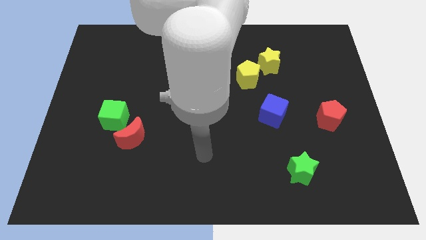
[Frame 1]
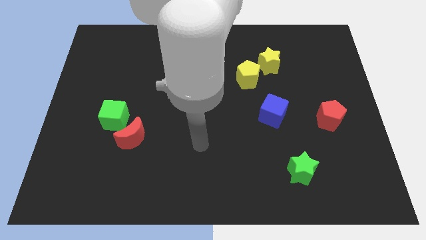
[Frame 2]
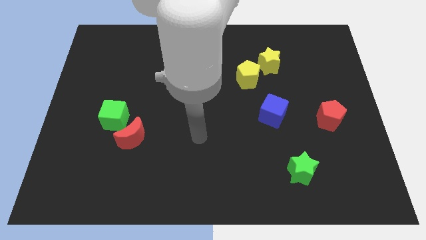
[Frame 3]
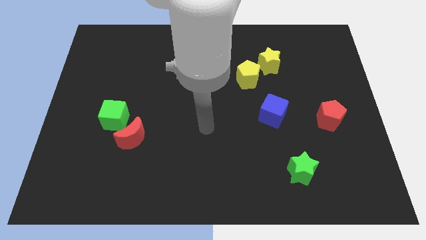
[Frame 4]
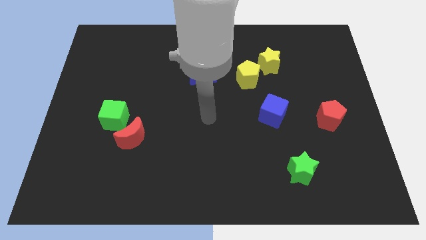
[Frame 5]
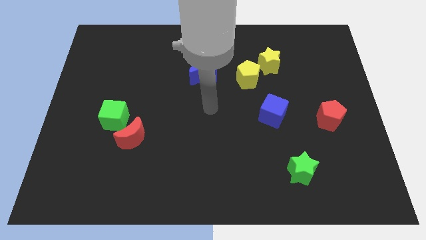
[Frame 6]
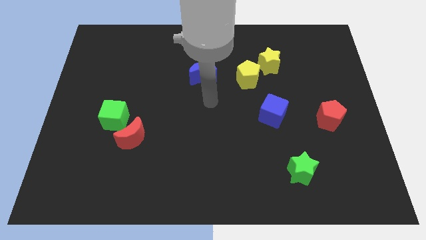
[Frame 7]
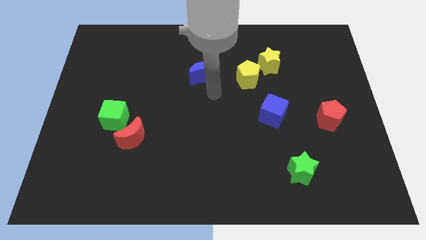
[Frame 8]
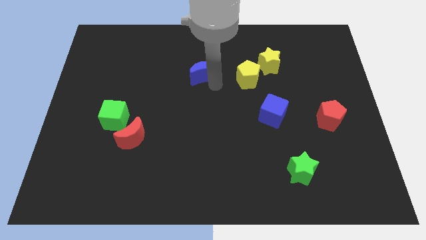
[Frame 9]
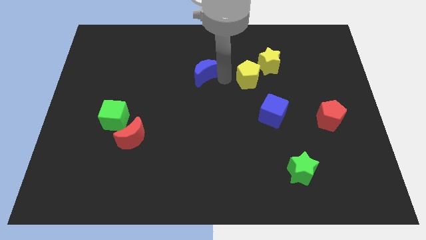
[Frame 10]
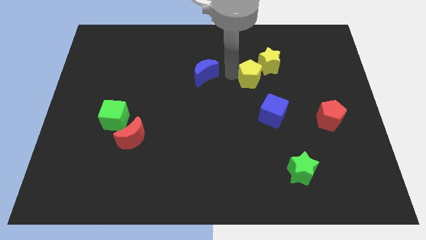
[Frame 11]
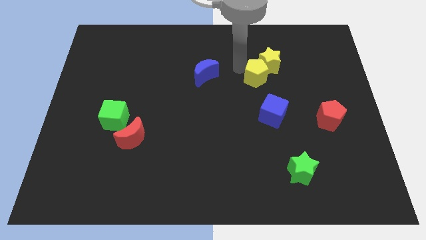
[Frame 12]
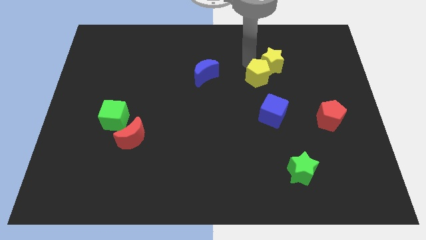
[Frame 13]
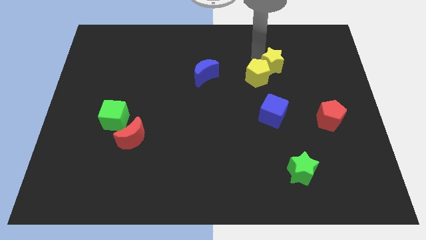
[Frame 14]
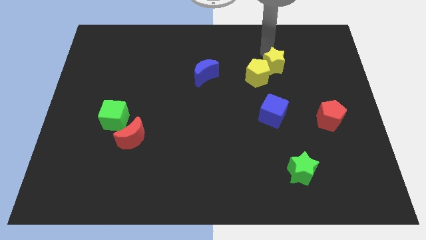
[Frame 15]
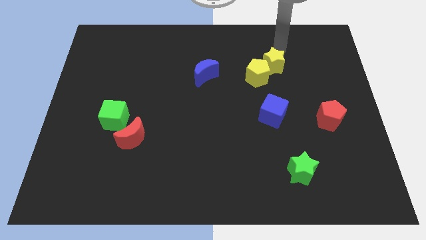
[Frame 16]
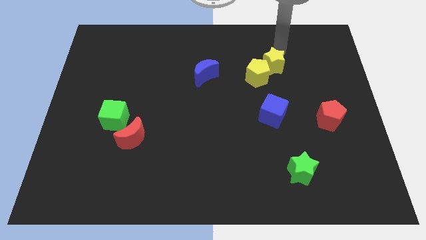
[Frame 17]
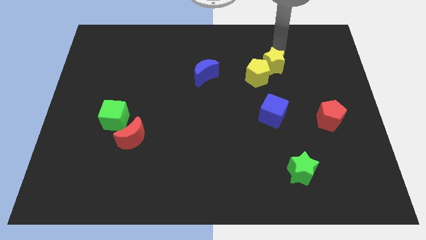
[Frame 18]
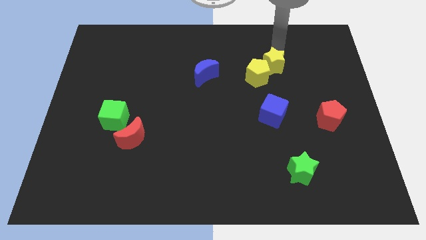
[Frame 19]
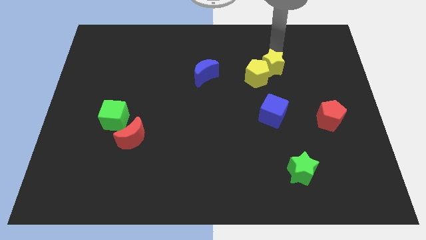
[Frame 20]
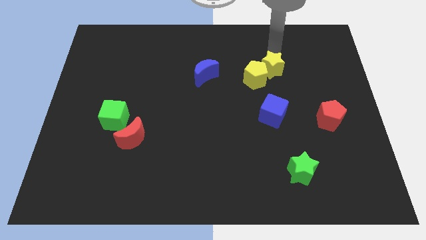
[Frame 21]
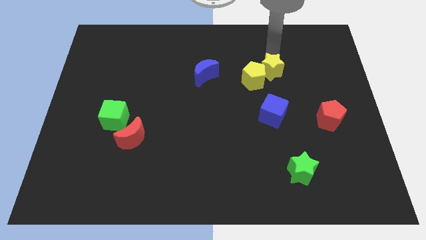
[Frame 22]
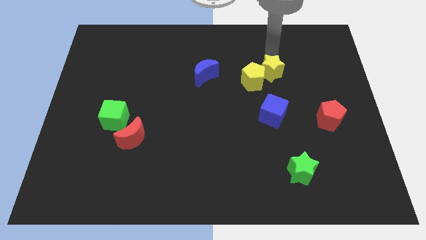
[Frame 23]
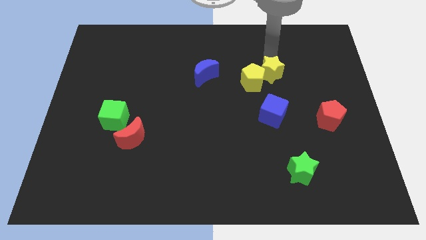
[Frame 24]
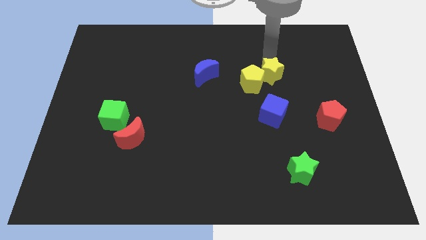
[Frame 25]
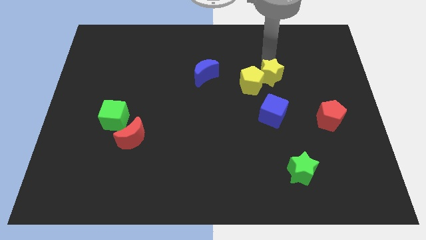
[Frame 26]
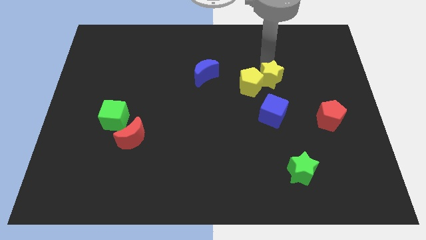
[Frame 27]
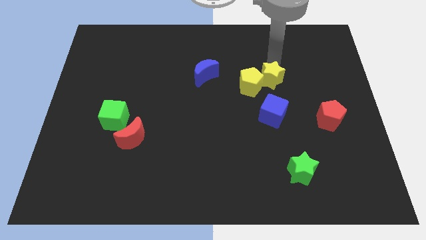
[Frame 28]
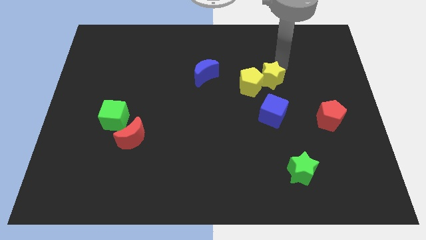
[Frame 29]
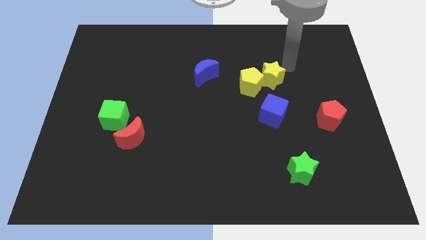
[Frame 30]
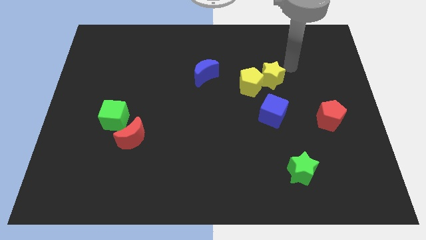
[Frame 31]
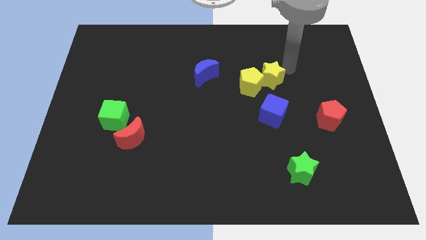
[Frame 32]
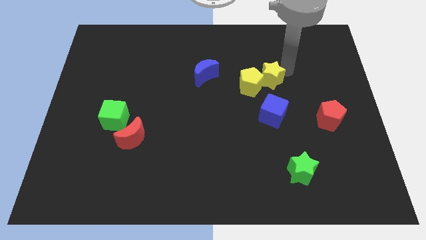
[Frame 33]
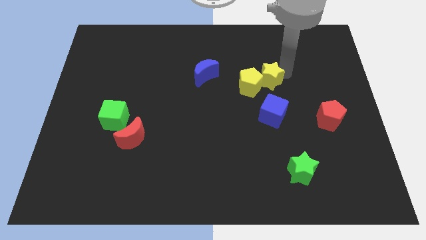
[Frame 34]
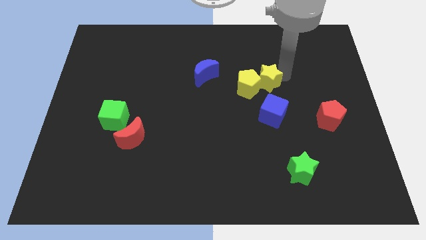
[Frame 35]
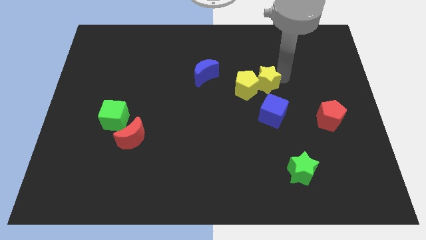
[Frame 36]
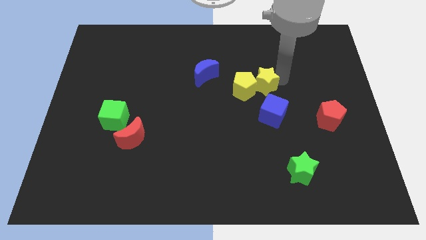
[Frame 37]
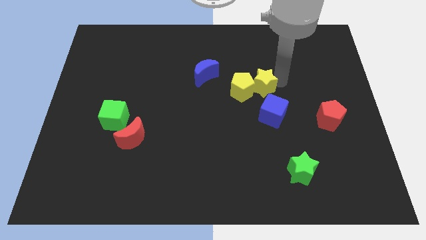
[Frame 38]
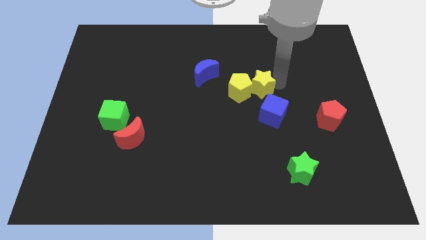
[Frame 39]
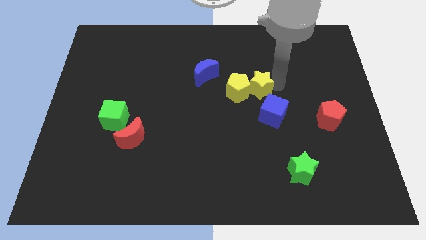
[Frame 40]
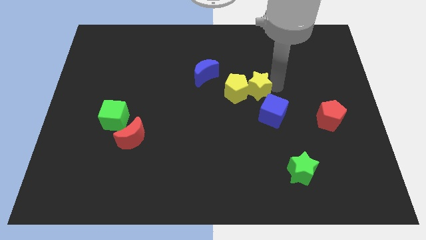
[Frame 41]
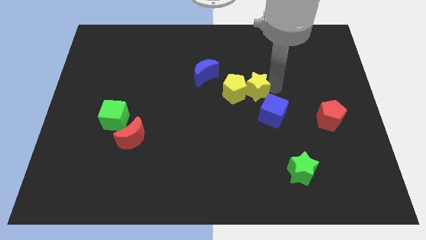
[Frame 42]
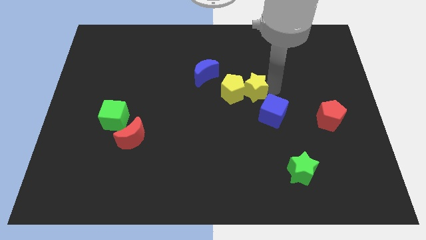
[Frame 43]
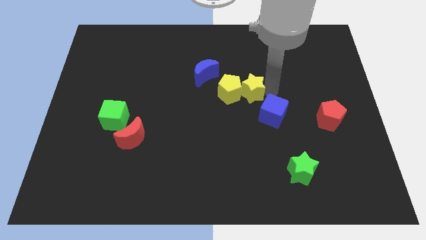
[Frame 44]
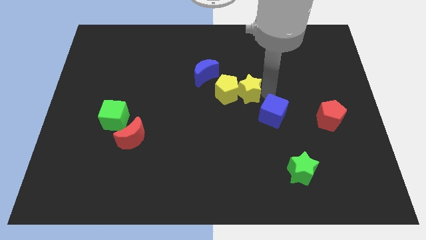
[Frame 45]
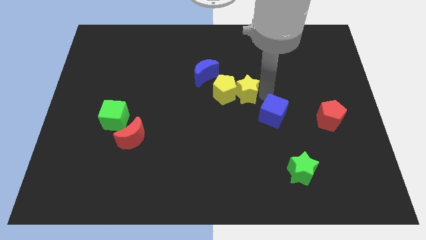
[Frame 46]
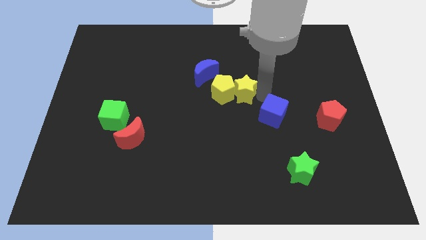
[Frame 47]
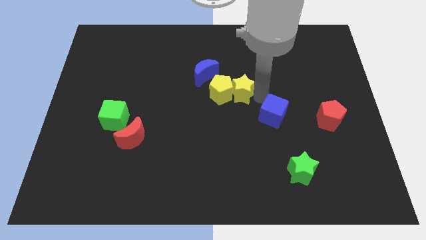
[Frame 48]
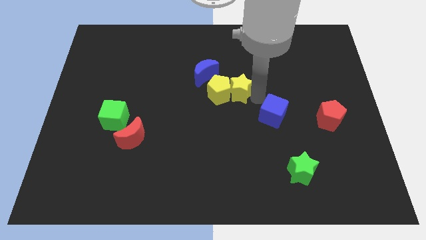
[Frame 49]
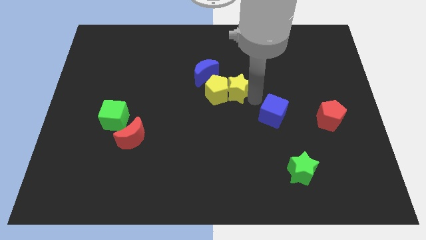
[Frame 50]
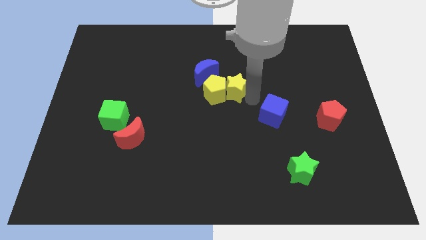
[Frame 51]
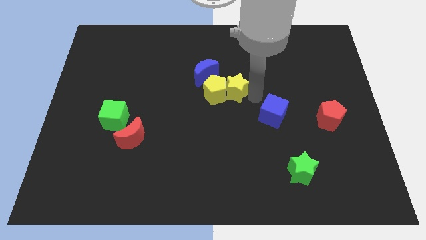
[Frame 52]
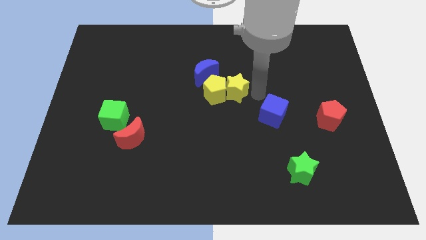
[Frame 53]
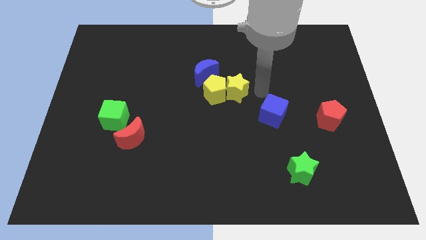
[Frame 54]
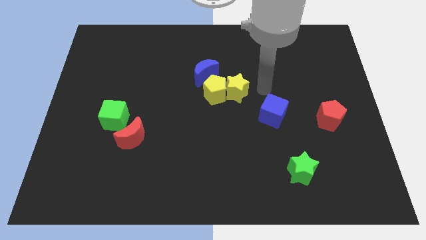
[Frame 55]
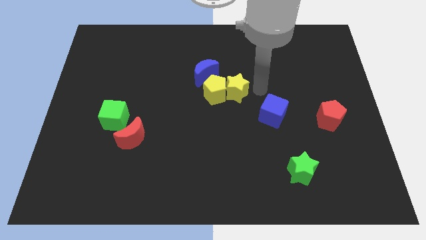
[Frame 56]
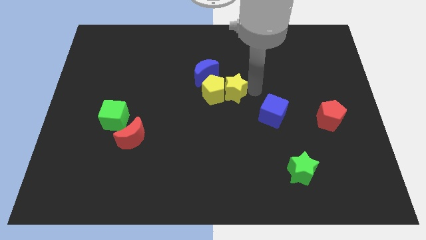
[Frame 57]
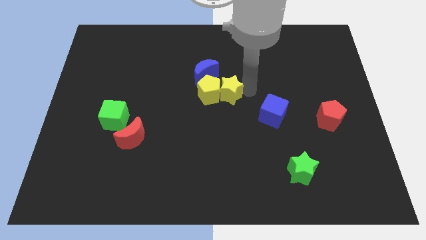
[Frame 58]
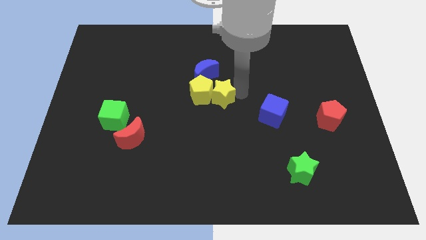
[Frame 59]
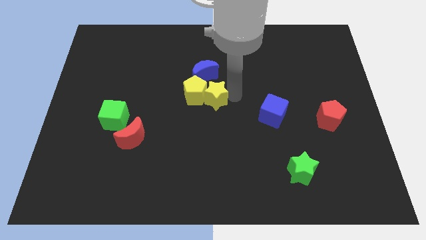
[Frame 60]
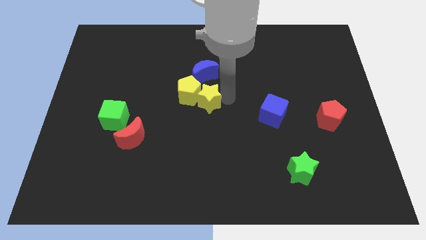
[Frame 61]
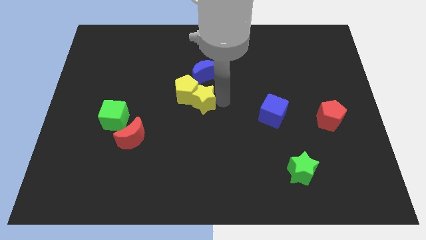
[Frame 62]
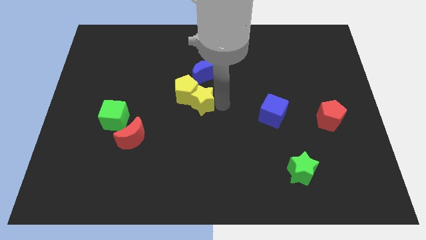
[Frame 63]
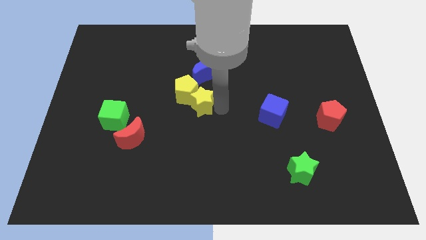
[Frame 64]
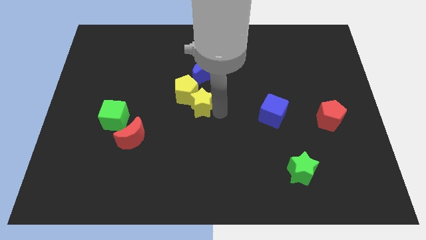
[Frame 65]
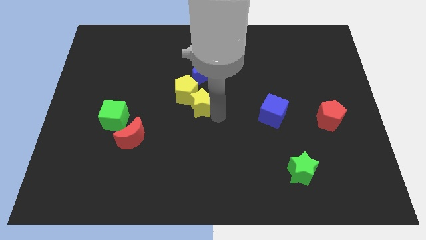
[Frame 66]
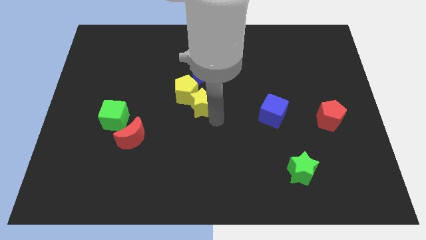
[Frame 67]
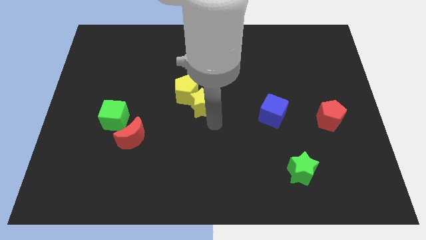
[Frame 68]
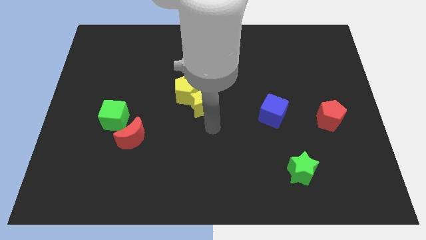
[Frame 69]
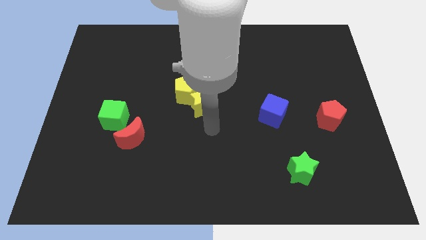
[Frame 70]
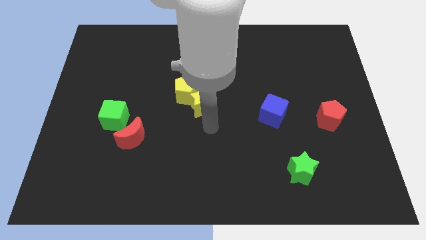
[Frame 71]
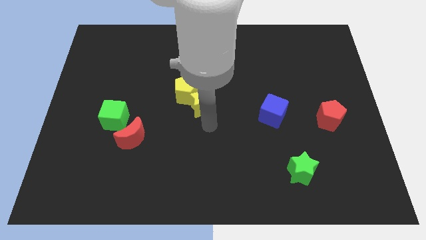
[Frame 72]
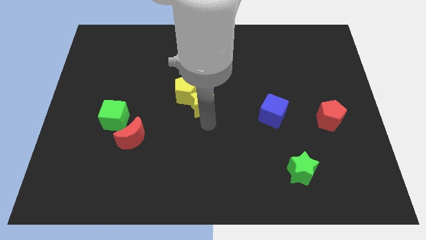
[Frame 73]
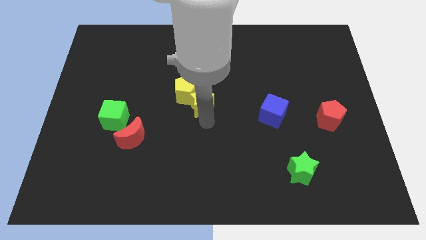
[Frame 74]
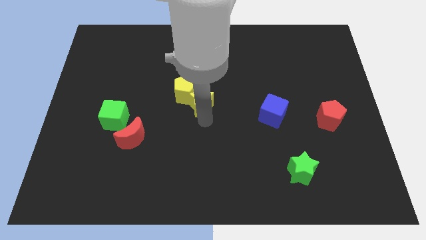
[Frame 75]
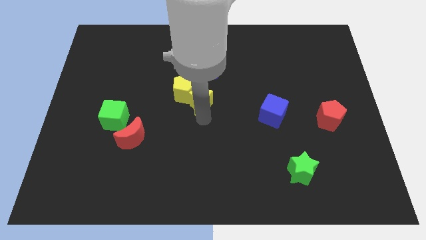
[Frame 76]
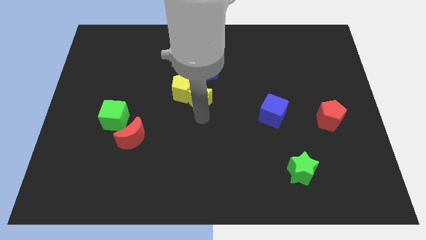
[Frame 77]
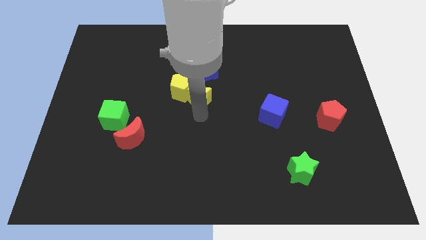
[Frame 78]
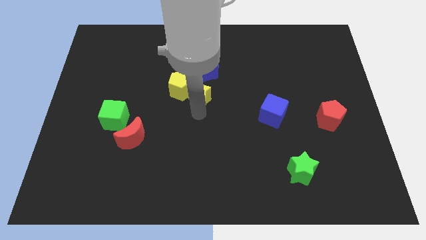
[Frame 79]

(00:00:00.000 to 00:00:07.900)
move the yellow star to the bottom left of the blue moon
